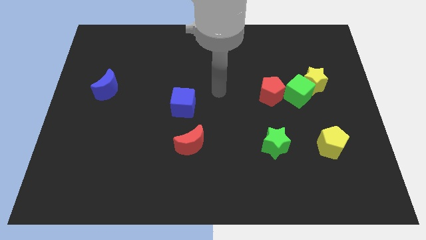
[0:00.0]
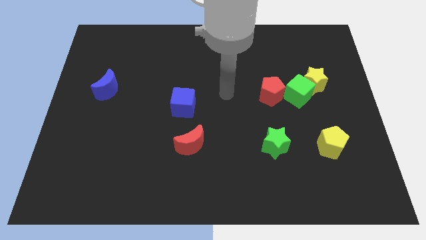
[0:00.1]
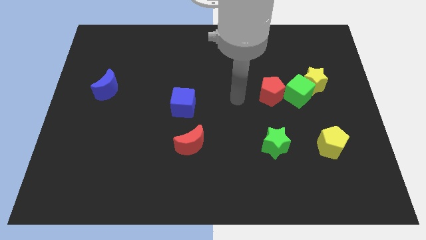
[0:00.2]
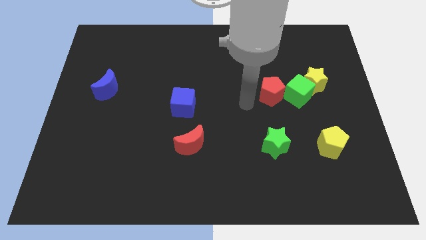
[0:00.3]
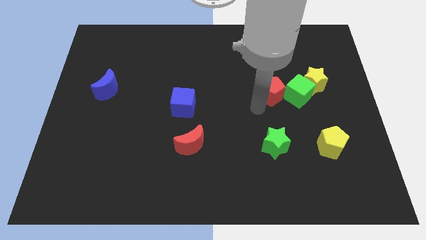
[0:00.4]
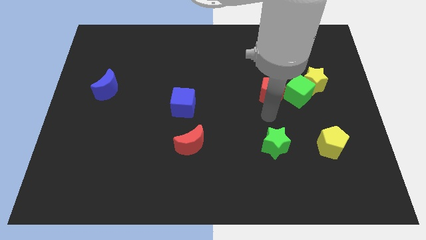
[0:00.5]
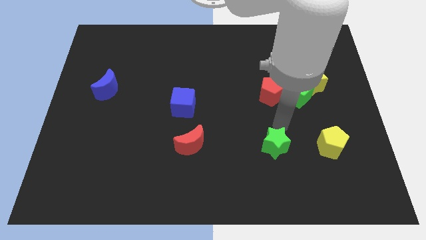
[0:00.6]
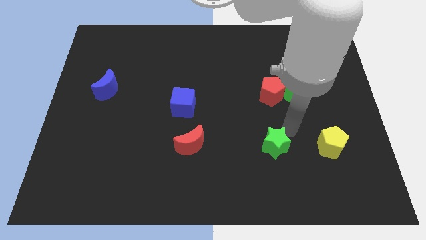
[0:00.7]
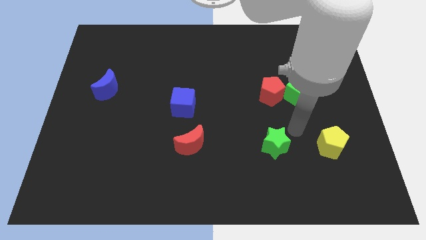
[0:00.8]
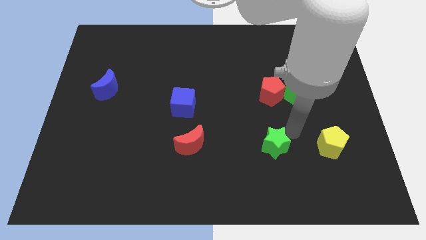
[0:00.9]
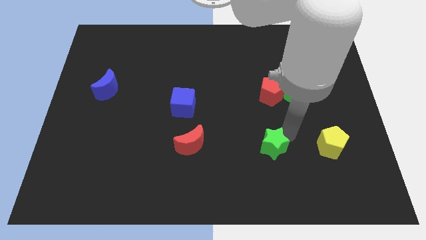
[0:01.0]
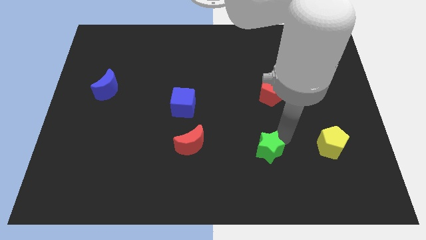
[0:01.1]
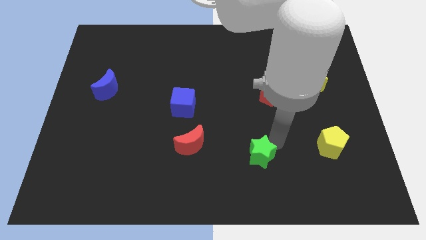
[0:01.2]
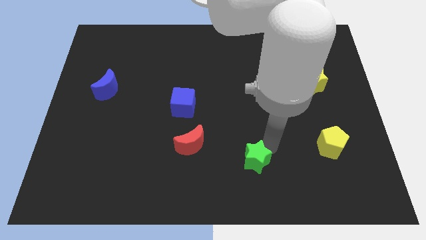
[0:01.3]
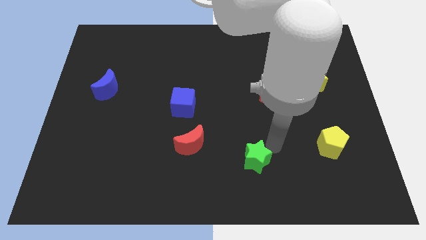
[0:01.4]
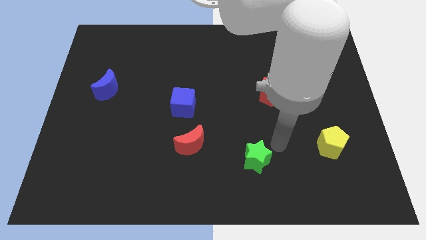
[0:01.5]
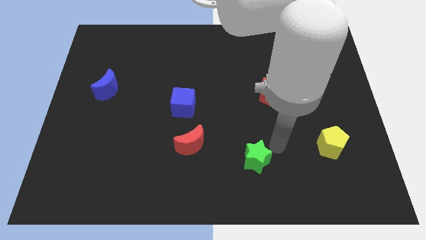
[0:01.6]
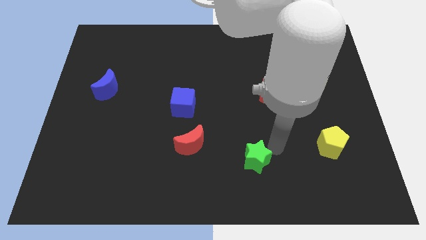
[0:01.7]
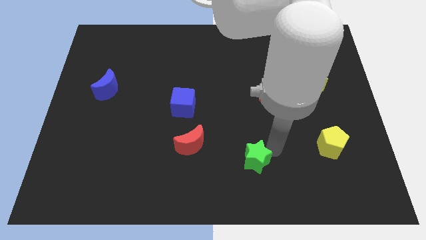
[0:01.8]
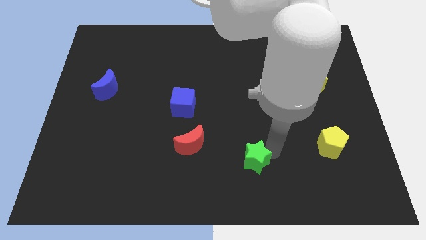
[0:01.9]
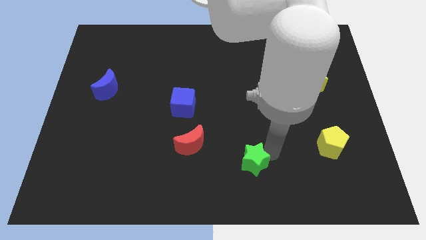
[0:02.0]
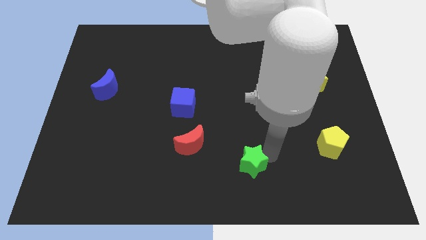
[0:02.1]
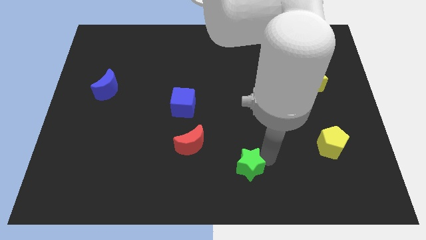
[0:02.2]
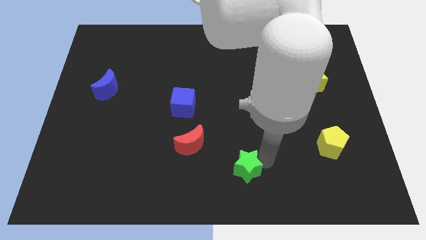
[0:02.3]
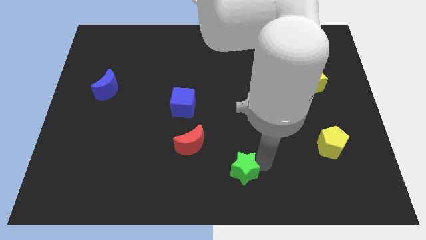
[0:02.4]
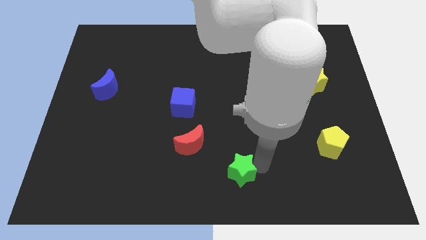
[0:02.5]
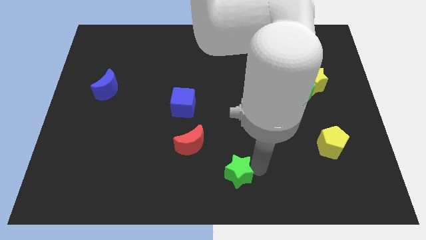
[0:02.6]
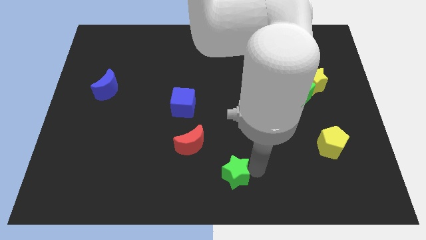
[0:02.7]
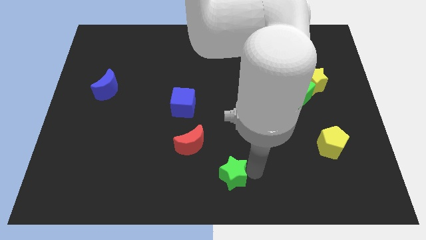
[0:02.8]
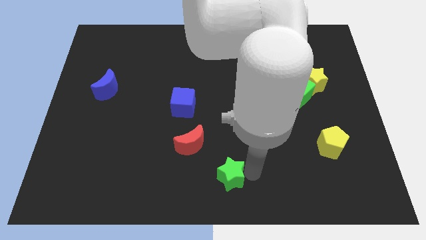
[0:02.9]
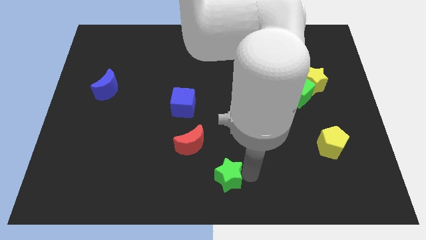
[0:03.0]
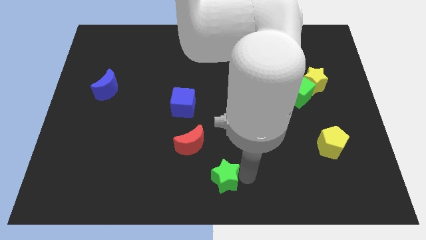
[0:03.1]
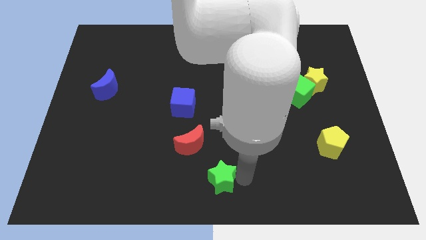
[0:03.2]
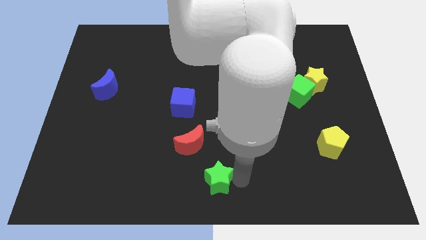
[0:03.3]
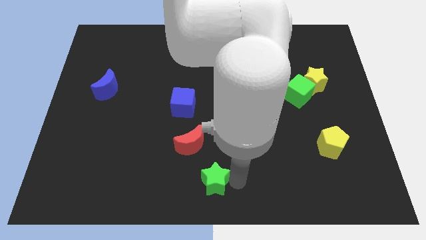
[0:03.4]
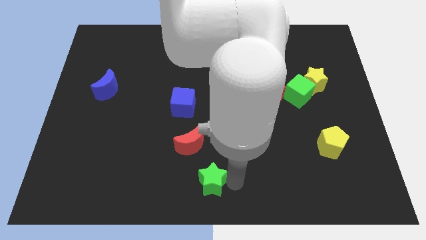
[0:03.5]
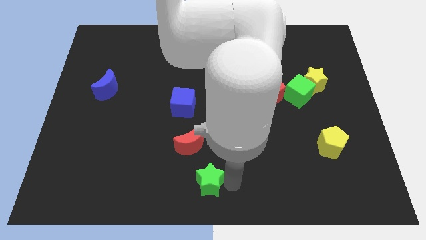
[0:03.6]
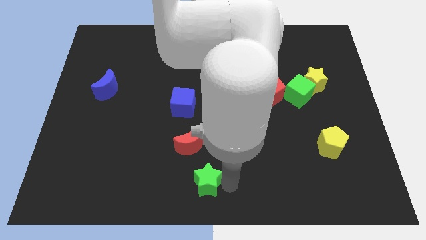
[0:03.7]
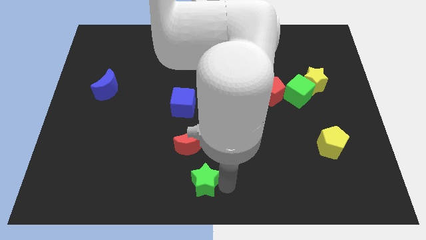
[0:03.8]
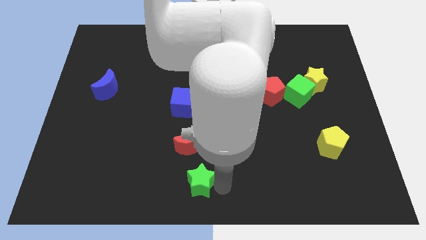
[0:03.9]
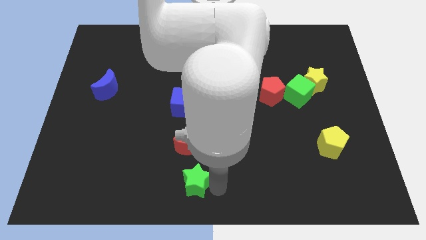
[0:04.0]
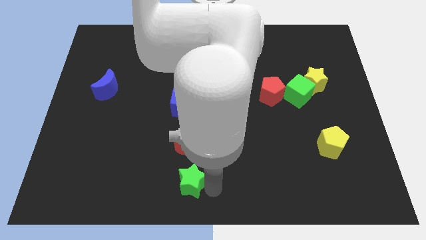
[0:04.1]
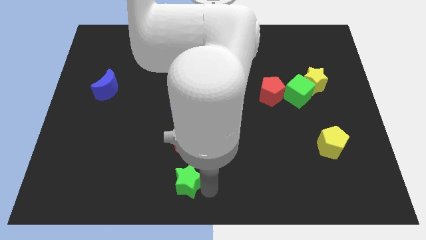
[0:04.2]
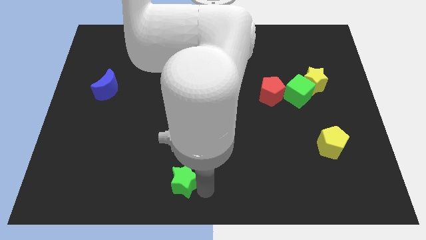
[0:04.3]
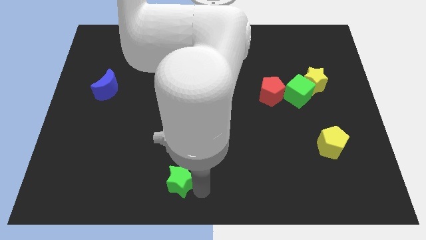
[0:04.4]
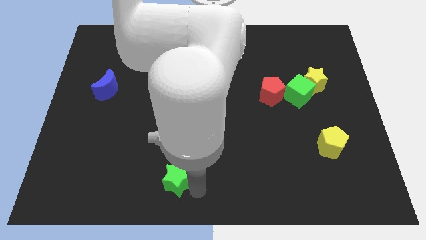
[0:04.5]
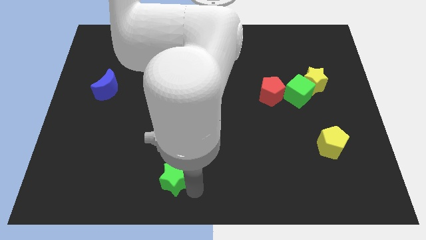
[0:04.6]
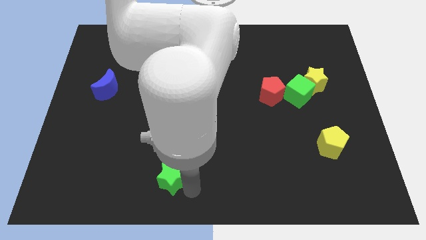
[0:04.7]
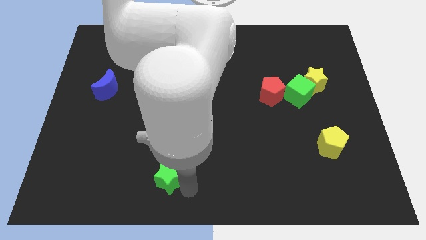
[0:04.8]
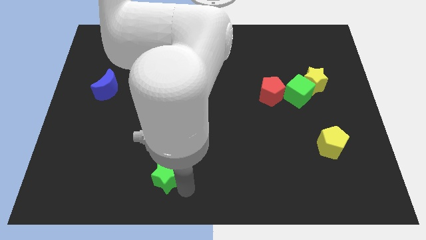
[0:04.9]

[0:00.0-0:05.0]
push the green star to the left

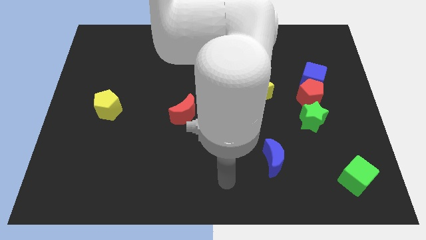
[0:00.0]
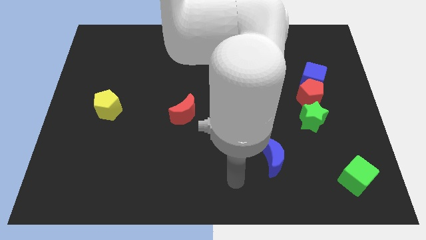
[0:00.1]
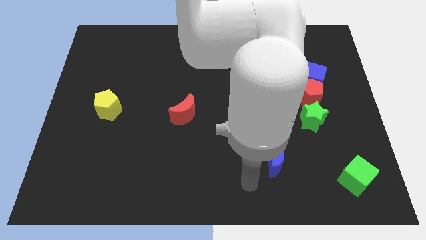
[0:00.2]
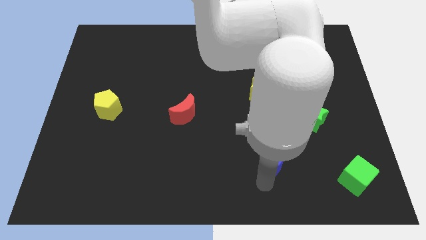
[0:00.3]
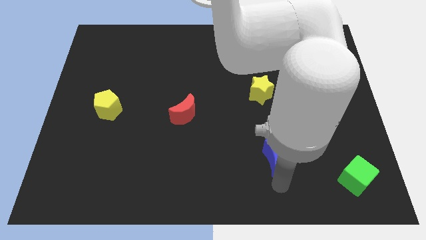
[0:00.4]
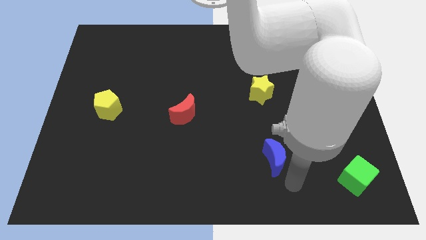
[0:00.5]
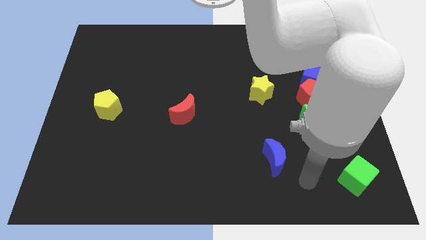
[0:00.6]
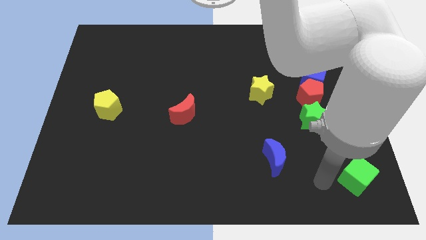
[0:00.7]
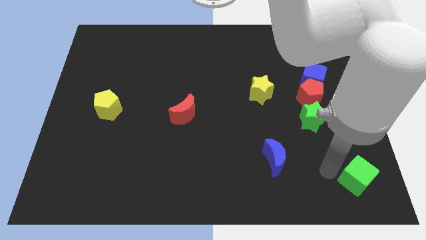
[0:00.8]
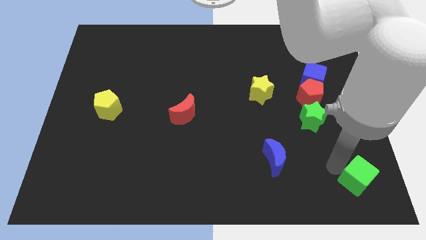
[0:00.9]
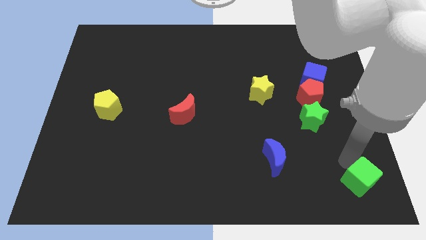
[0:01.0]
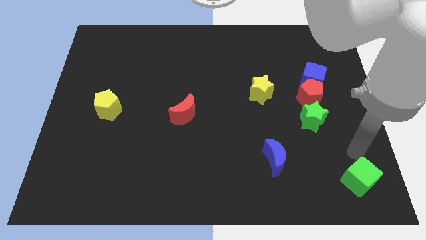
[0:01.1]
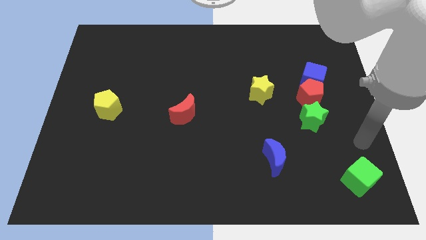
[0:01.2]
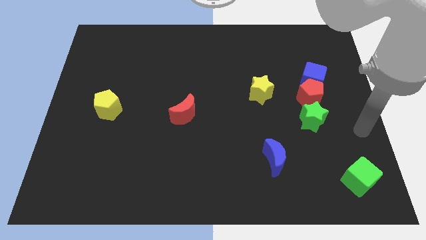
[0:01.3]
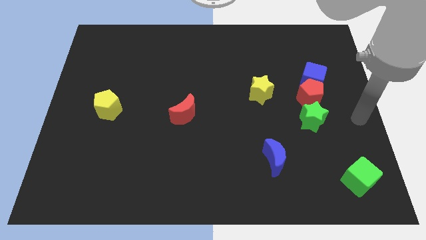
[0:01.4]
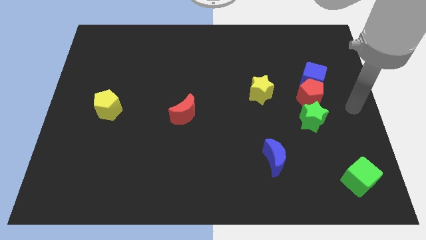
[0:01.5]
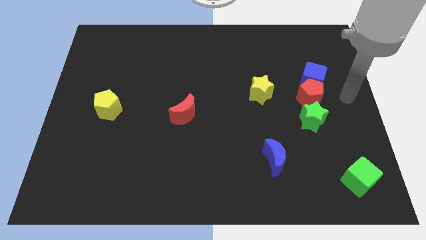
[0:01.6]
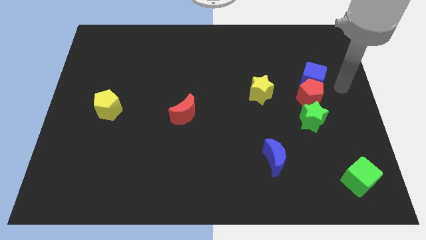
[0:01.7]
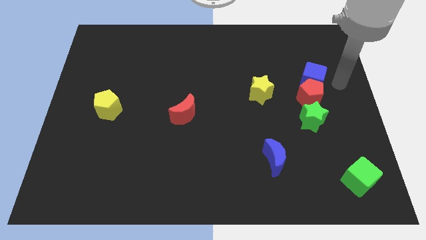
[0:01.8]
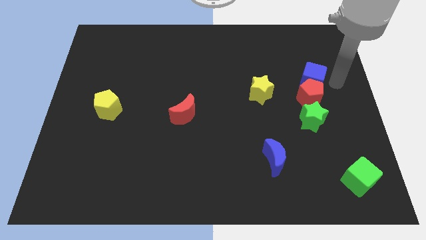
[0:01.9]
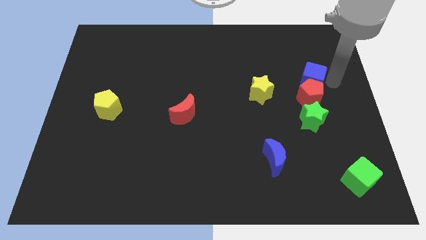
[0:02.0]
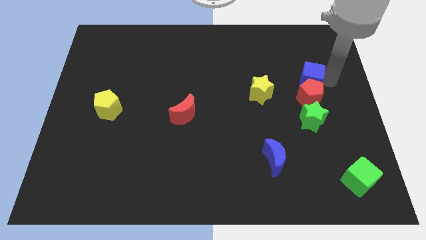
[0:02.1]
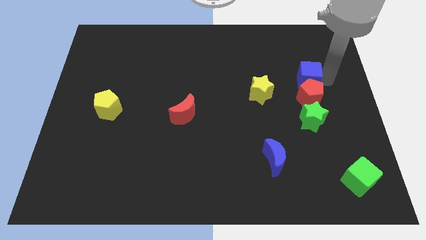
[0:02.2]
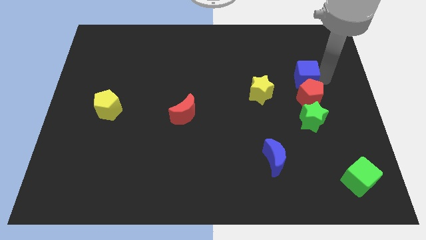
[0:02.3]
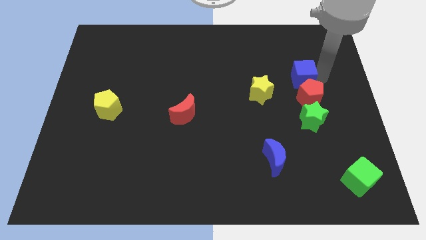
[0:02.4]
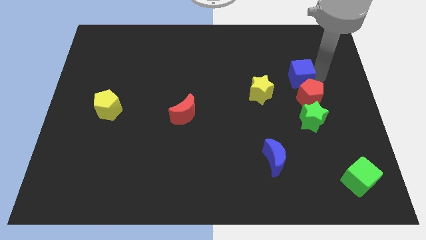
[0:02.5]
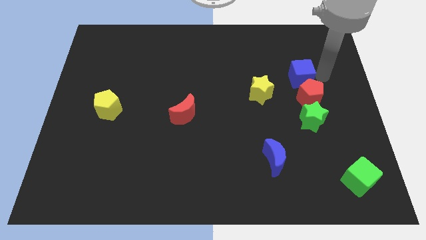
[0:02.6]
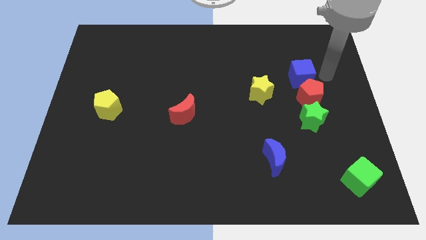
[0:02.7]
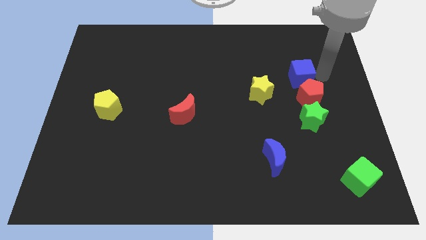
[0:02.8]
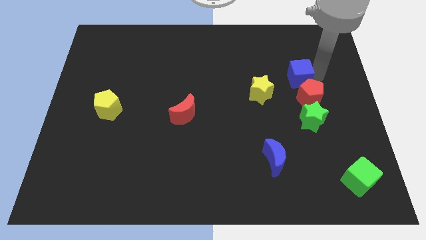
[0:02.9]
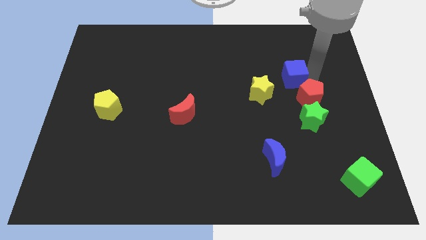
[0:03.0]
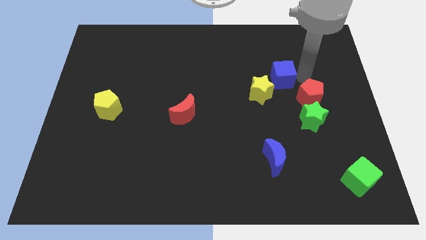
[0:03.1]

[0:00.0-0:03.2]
slightly slide the blue cube left
